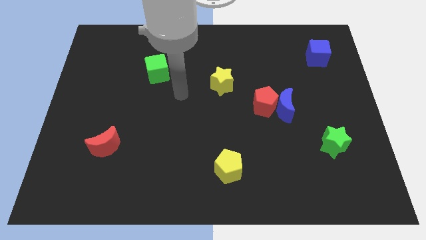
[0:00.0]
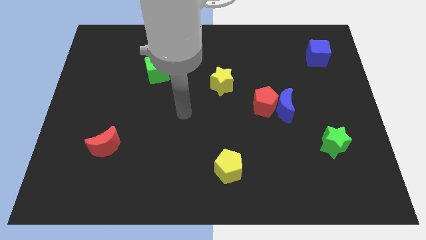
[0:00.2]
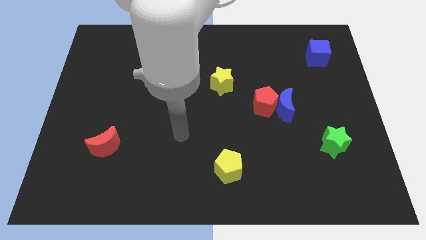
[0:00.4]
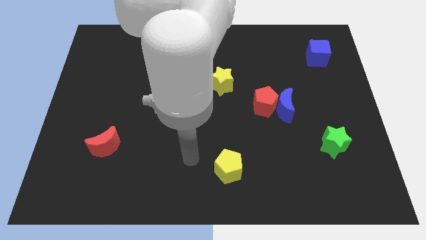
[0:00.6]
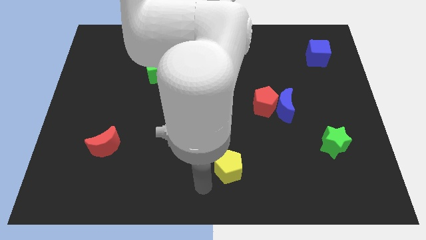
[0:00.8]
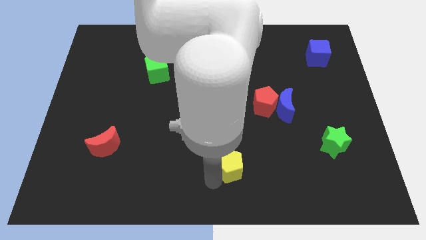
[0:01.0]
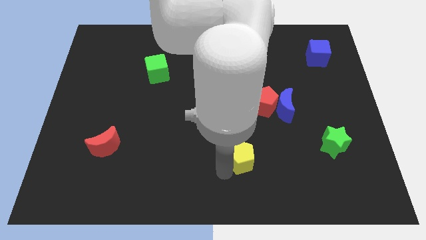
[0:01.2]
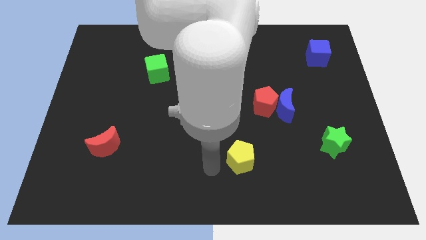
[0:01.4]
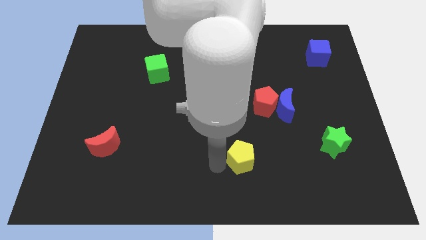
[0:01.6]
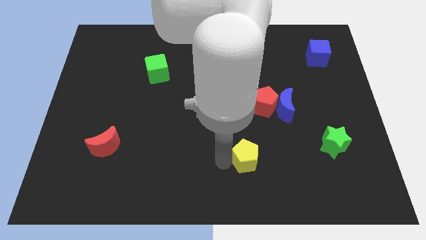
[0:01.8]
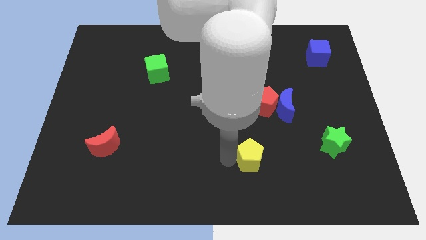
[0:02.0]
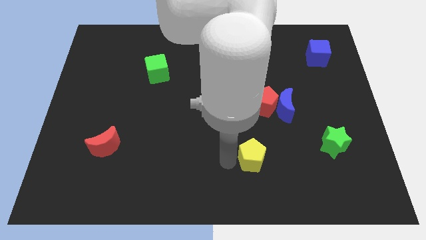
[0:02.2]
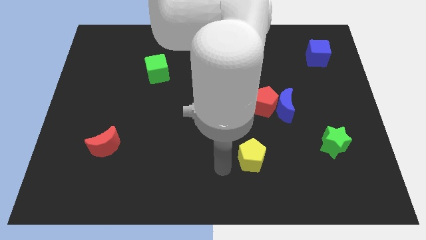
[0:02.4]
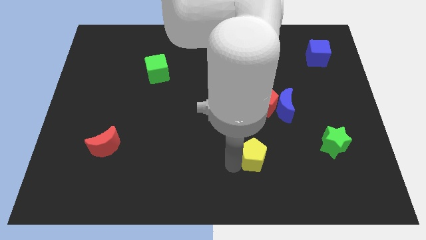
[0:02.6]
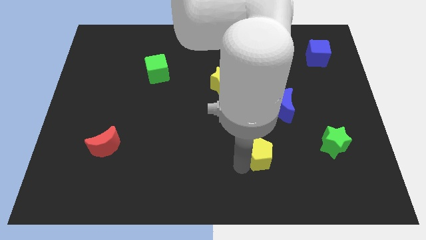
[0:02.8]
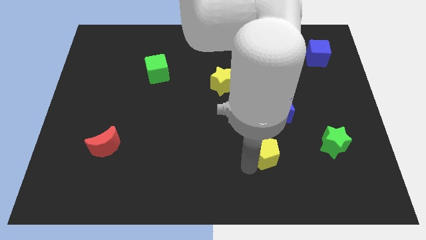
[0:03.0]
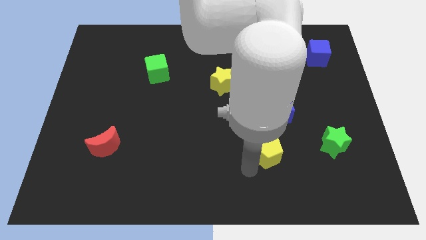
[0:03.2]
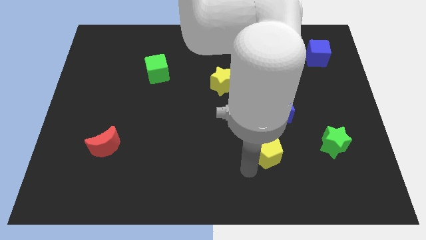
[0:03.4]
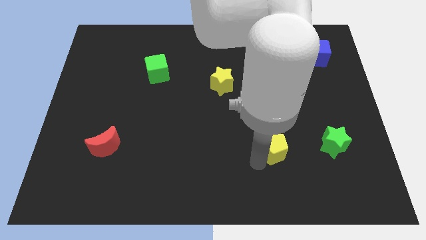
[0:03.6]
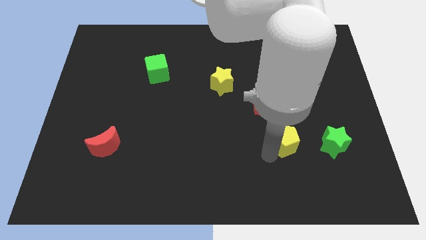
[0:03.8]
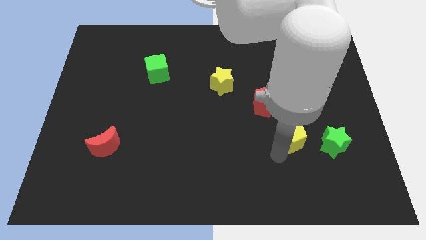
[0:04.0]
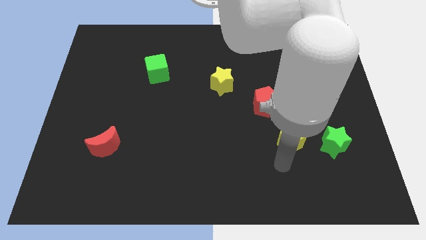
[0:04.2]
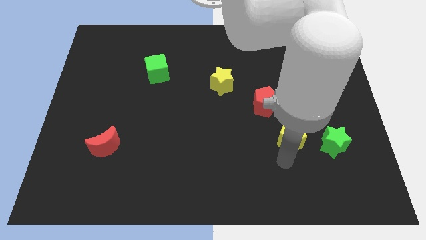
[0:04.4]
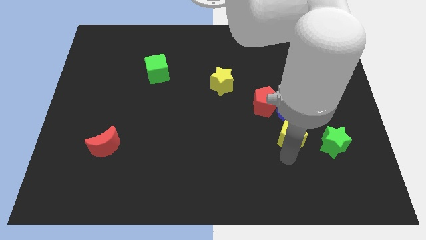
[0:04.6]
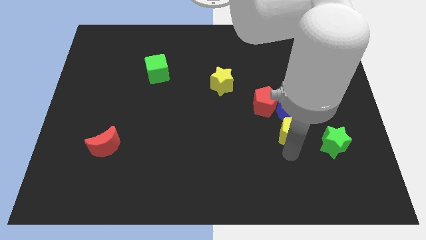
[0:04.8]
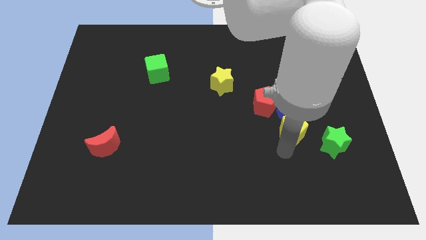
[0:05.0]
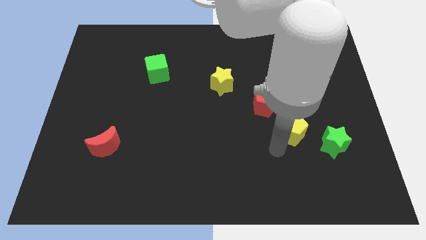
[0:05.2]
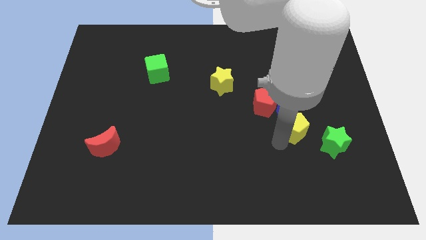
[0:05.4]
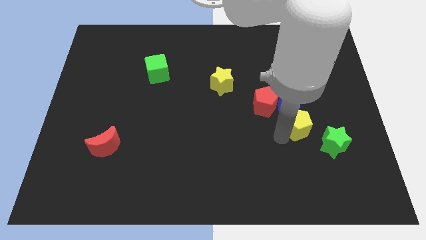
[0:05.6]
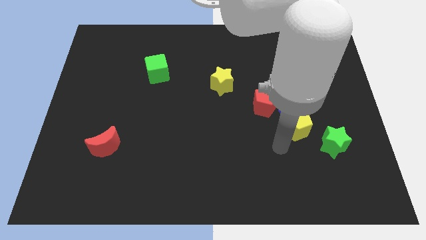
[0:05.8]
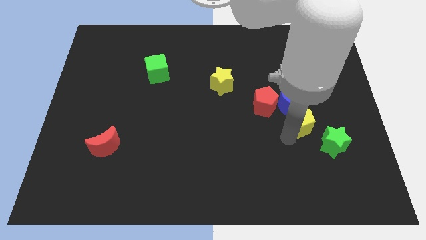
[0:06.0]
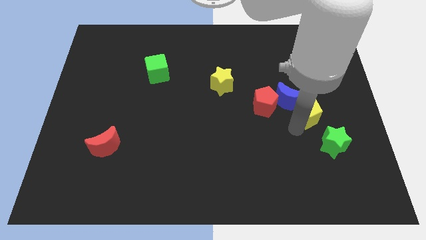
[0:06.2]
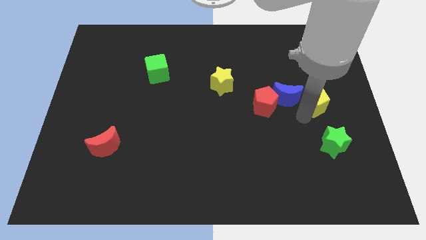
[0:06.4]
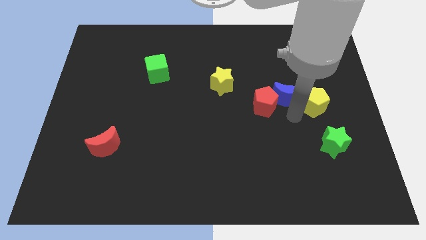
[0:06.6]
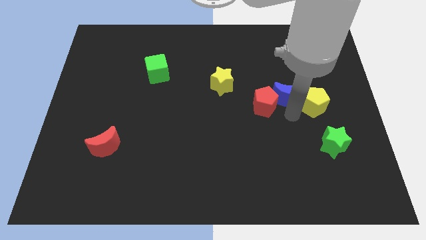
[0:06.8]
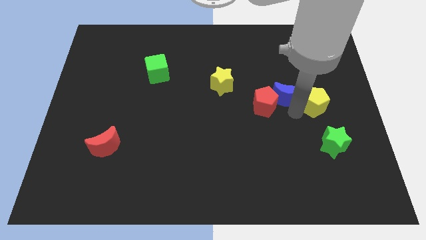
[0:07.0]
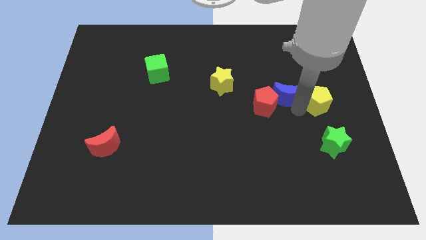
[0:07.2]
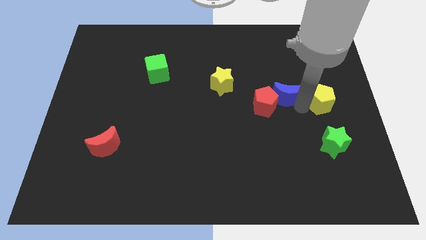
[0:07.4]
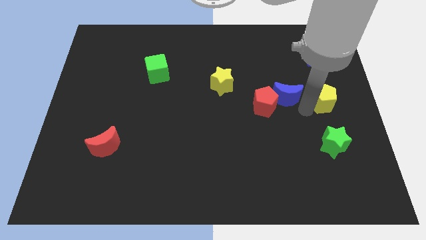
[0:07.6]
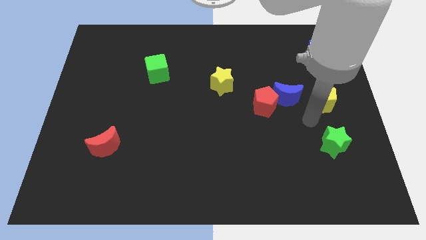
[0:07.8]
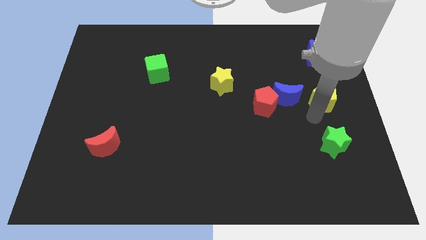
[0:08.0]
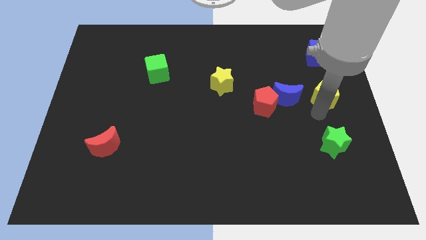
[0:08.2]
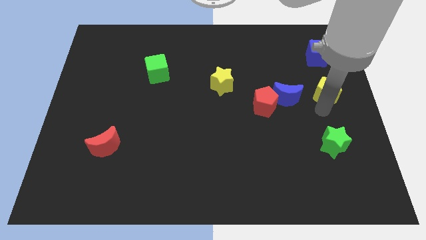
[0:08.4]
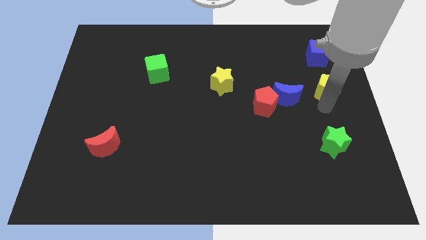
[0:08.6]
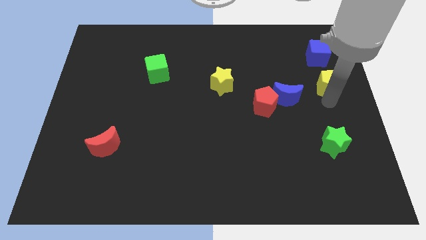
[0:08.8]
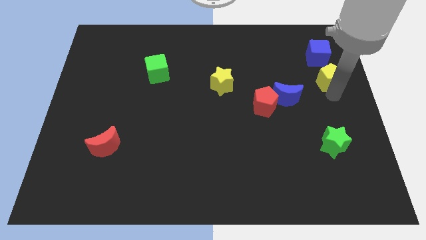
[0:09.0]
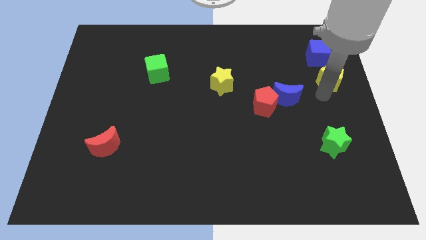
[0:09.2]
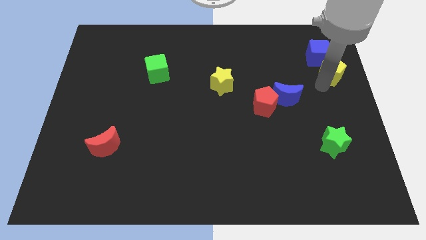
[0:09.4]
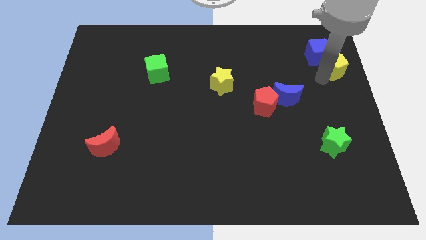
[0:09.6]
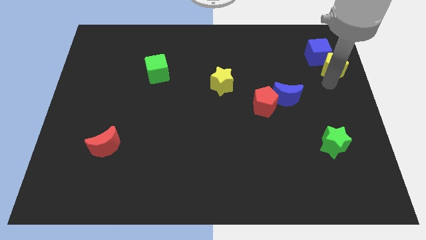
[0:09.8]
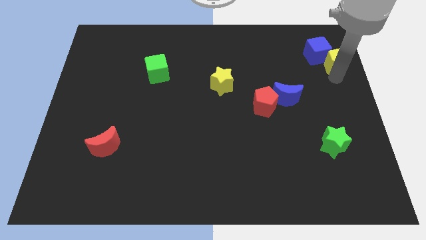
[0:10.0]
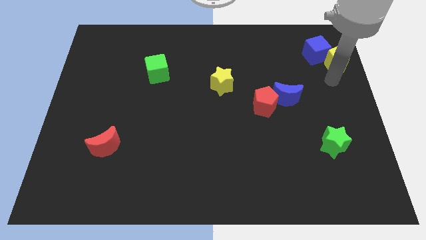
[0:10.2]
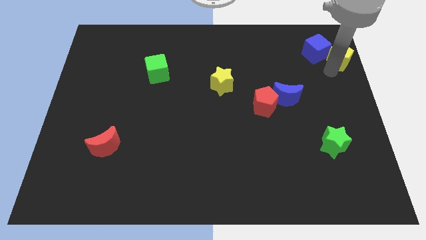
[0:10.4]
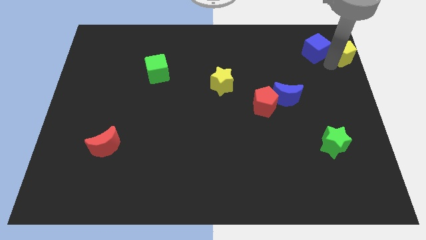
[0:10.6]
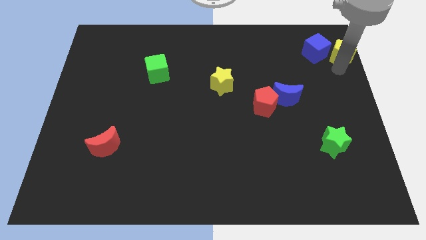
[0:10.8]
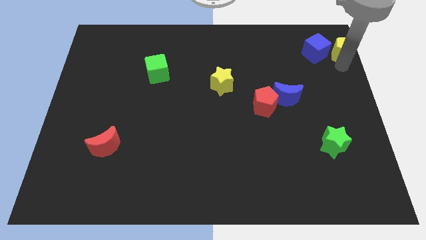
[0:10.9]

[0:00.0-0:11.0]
move the yellow pentagon to the top right corner

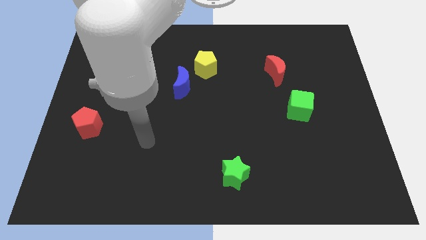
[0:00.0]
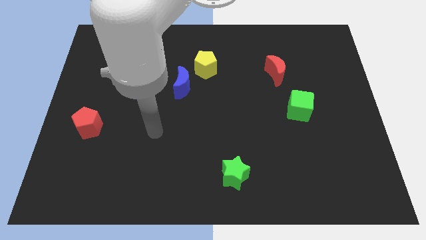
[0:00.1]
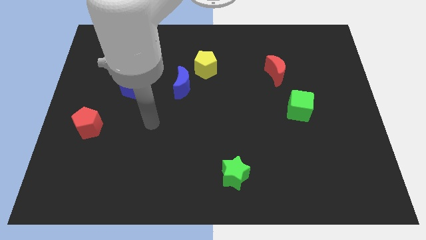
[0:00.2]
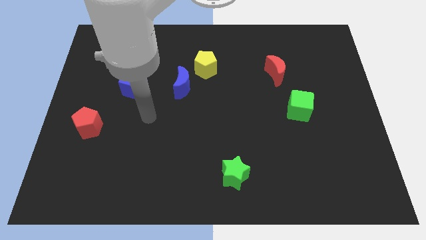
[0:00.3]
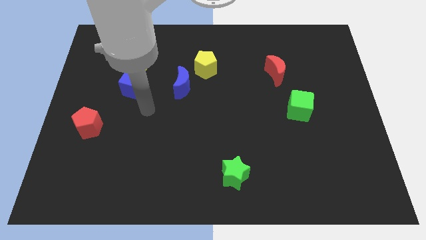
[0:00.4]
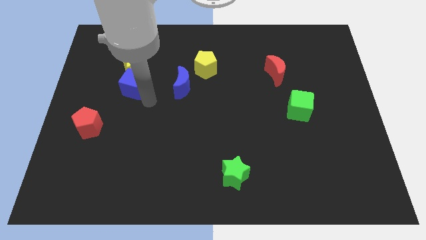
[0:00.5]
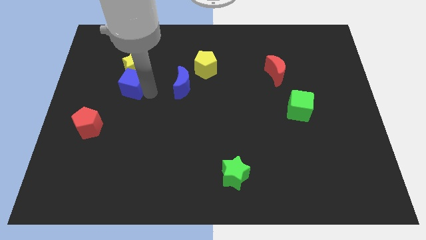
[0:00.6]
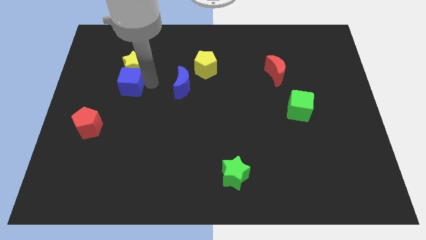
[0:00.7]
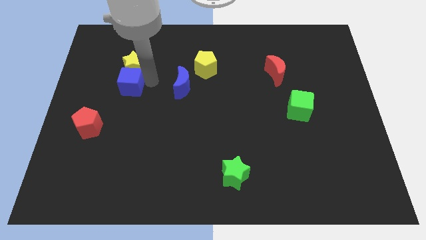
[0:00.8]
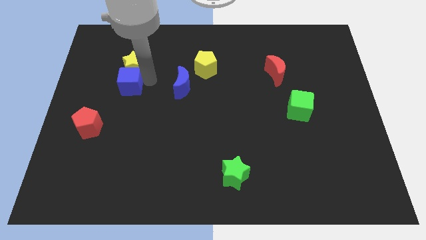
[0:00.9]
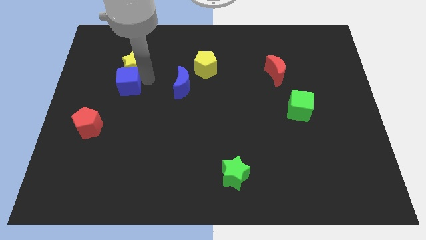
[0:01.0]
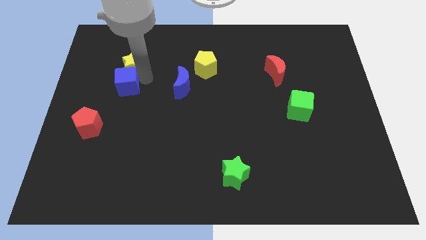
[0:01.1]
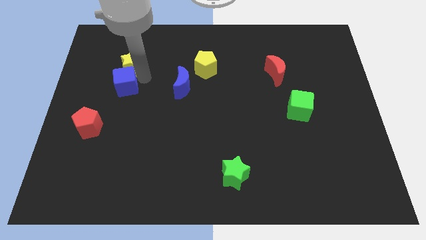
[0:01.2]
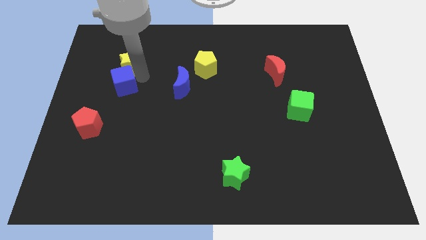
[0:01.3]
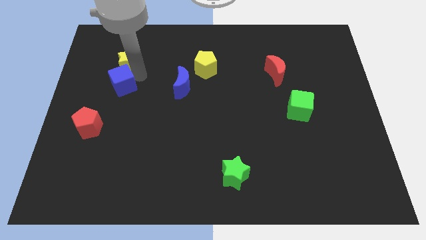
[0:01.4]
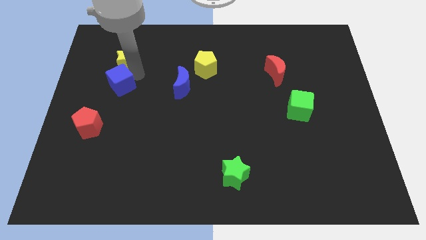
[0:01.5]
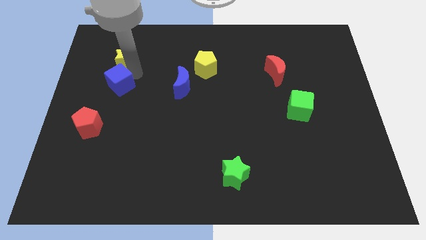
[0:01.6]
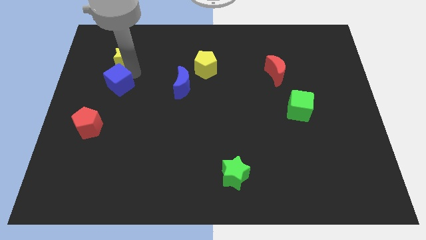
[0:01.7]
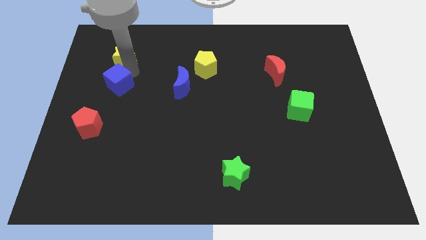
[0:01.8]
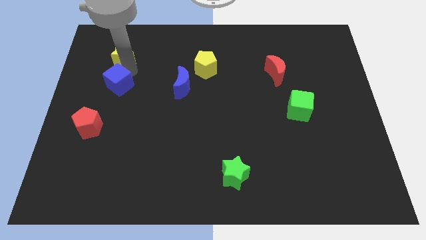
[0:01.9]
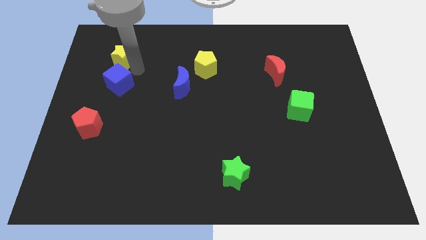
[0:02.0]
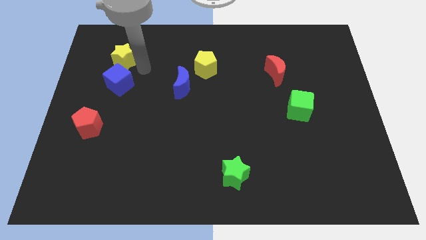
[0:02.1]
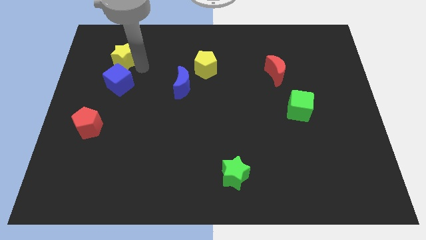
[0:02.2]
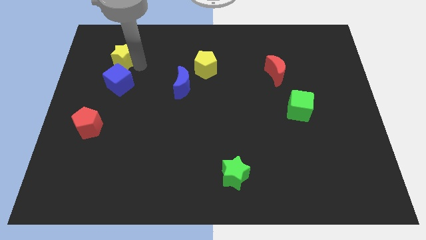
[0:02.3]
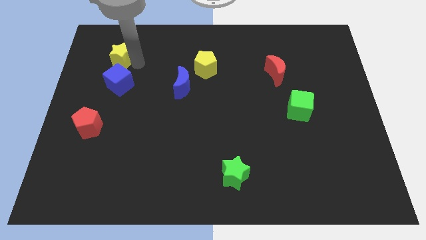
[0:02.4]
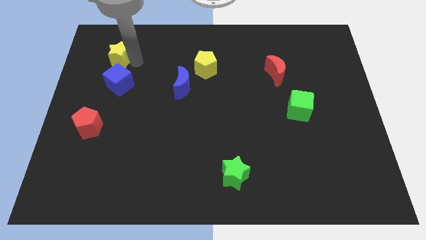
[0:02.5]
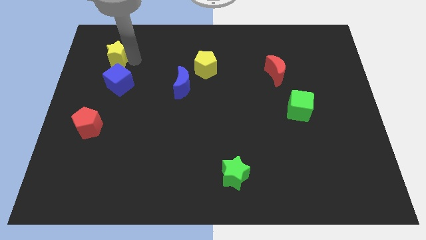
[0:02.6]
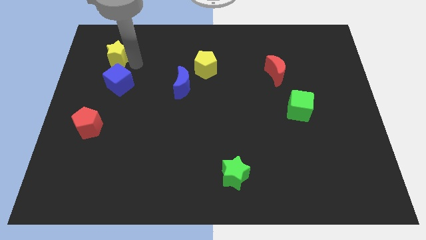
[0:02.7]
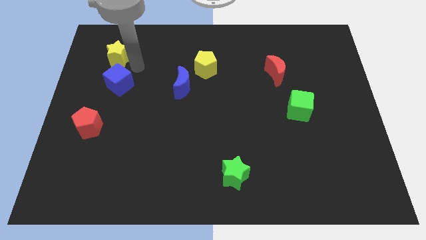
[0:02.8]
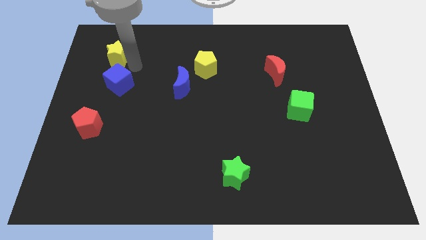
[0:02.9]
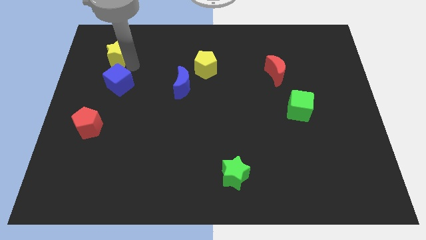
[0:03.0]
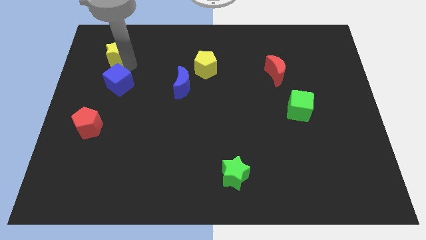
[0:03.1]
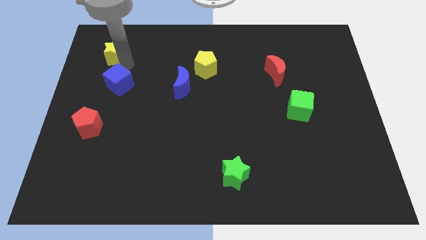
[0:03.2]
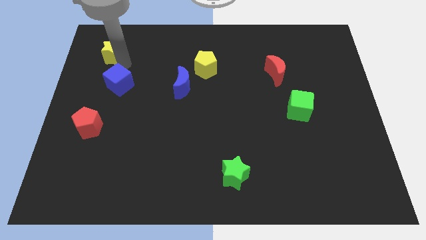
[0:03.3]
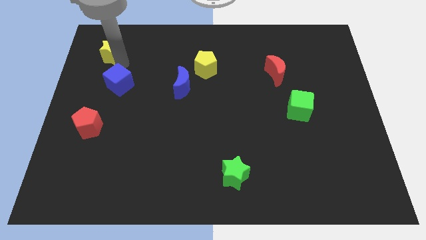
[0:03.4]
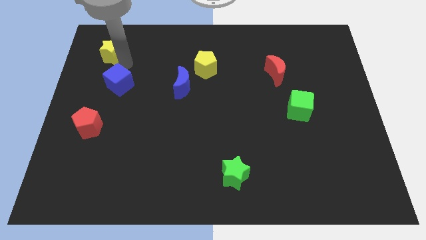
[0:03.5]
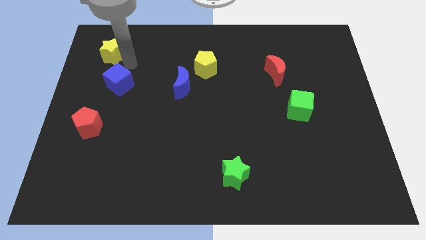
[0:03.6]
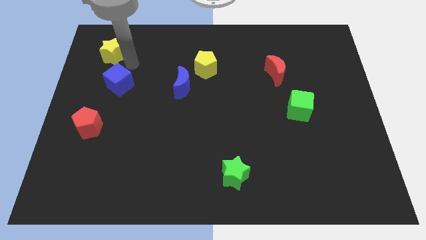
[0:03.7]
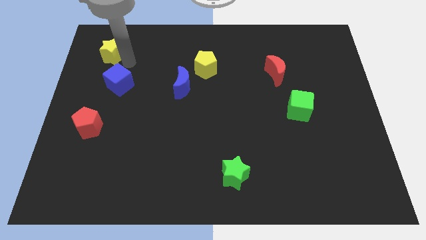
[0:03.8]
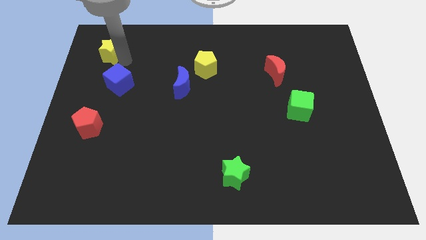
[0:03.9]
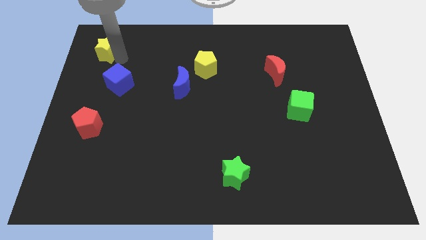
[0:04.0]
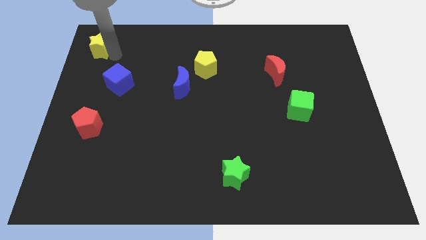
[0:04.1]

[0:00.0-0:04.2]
slide the yellow star to the top left corner
